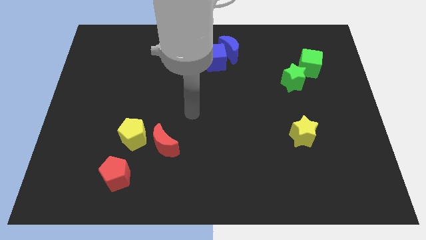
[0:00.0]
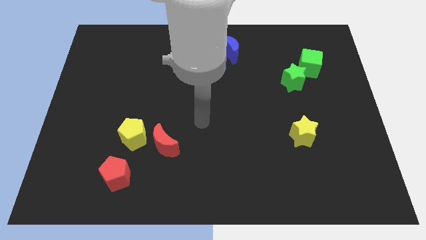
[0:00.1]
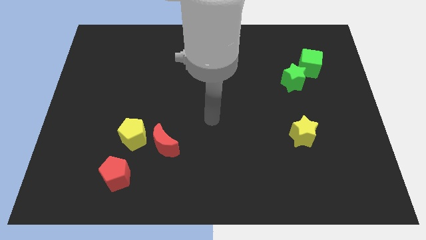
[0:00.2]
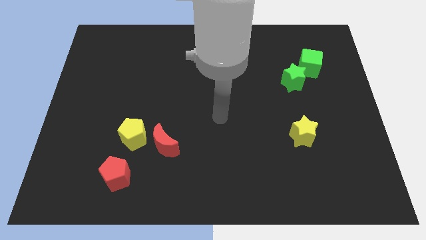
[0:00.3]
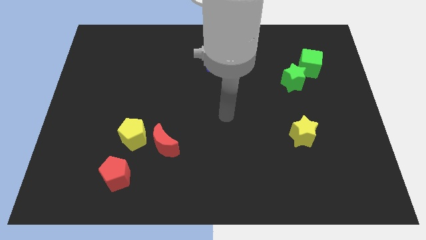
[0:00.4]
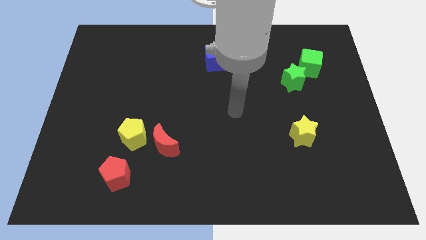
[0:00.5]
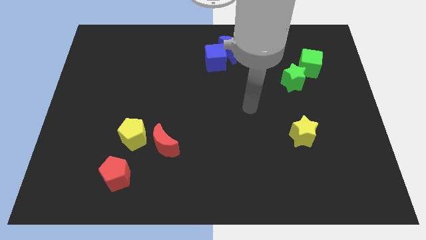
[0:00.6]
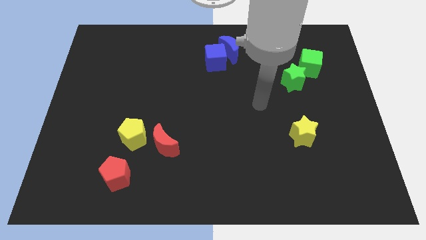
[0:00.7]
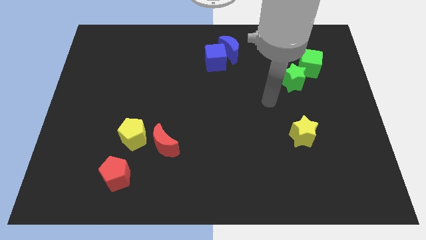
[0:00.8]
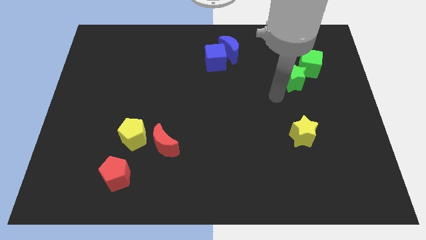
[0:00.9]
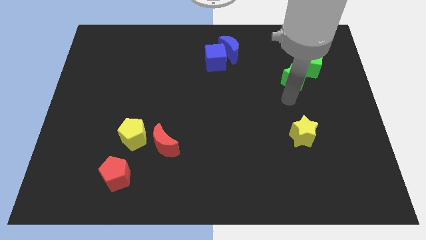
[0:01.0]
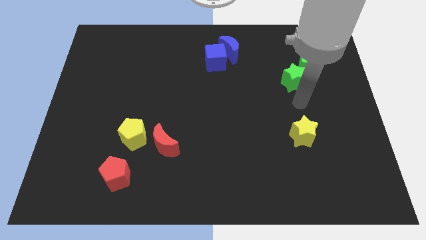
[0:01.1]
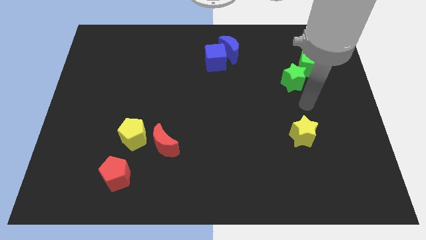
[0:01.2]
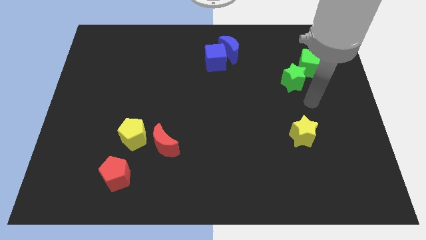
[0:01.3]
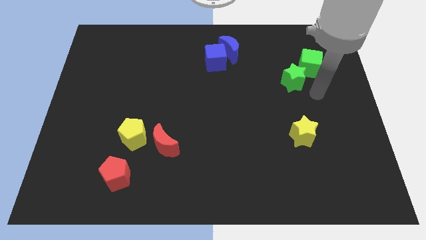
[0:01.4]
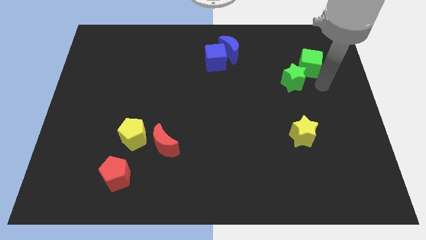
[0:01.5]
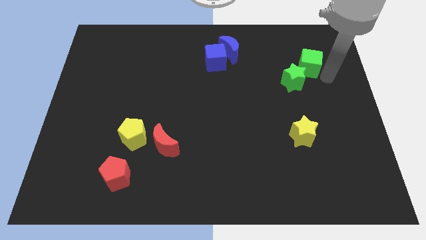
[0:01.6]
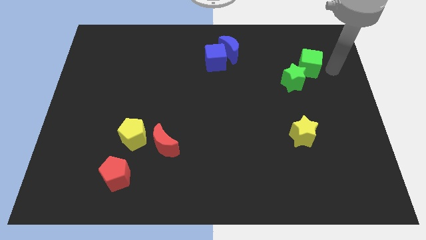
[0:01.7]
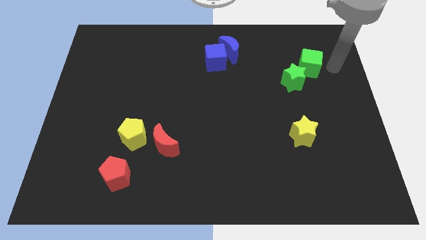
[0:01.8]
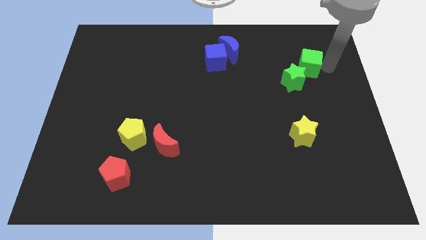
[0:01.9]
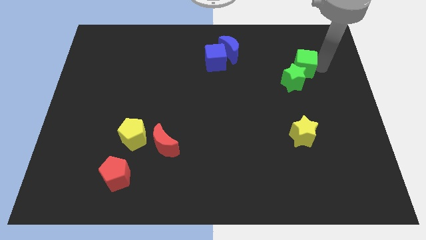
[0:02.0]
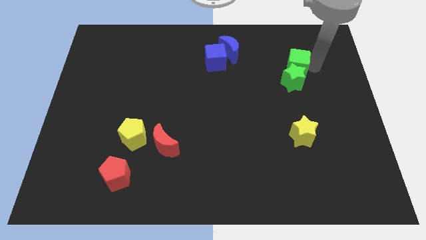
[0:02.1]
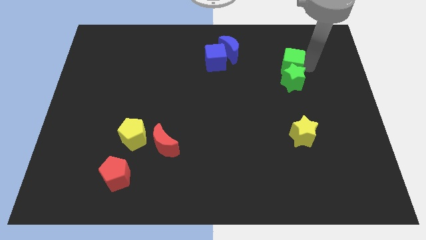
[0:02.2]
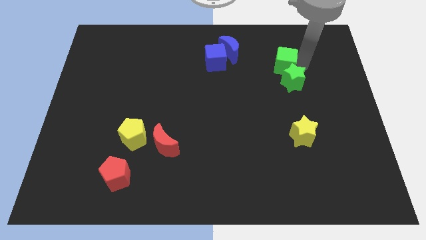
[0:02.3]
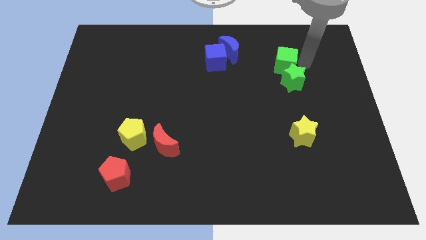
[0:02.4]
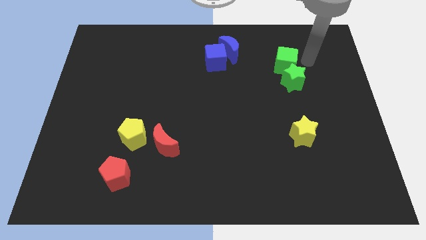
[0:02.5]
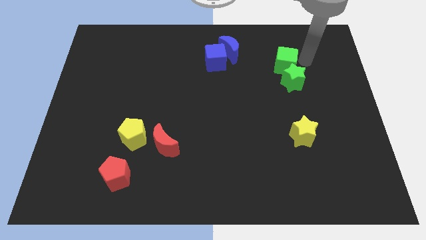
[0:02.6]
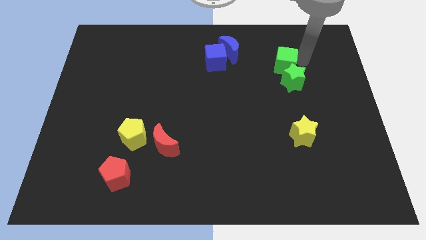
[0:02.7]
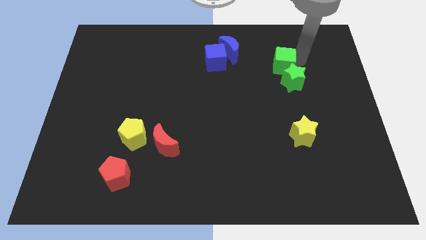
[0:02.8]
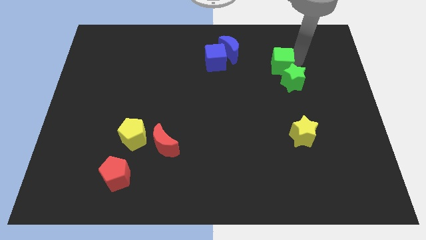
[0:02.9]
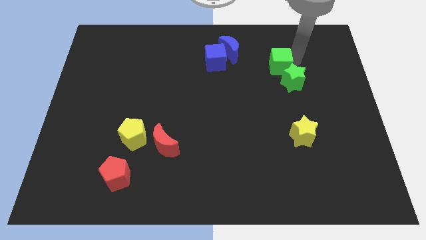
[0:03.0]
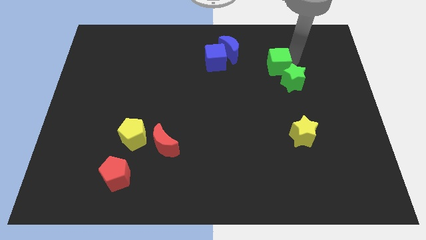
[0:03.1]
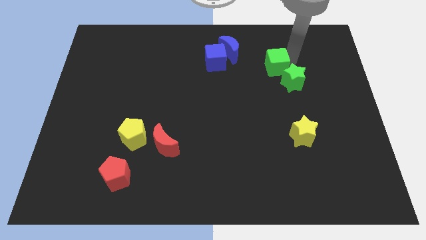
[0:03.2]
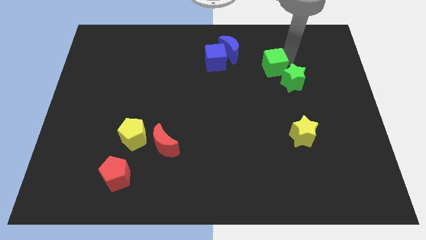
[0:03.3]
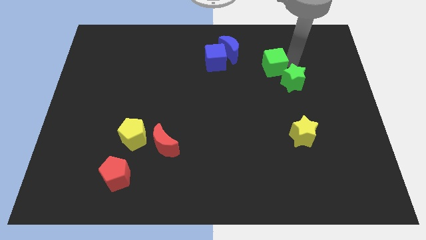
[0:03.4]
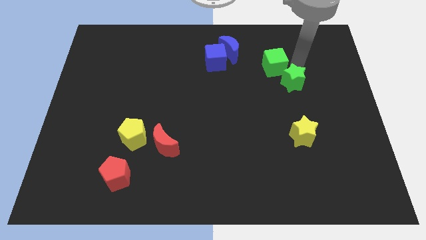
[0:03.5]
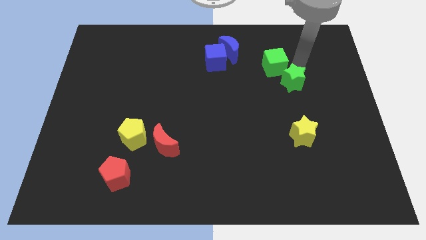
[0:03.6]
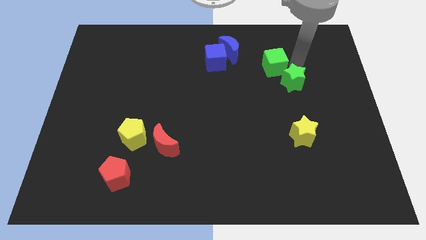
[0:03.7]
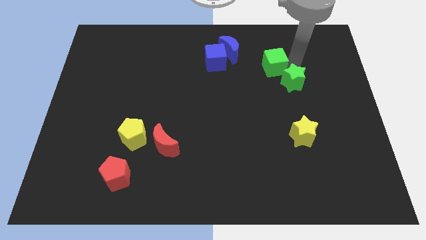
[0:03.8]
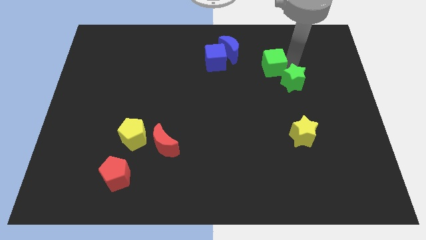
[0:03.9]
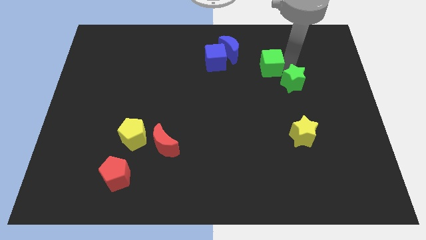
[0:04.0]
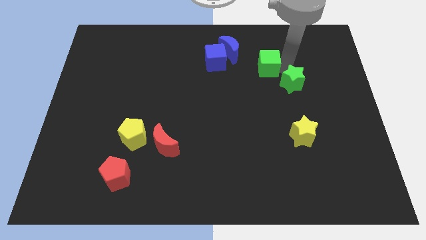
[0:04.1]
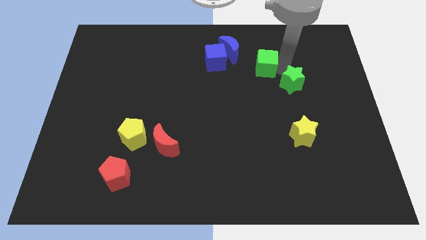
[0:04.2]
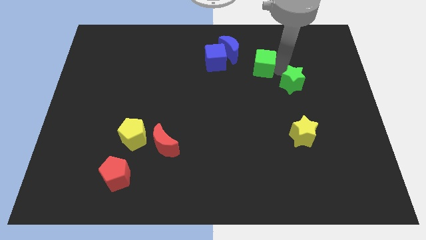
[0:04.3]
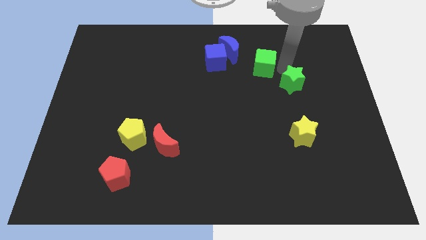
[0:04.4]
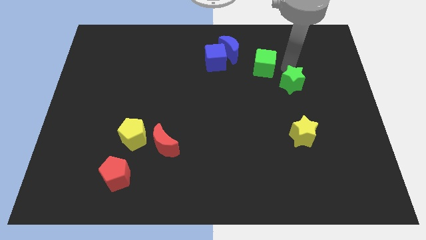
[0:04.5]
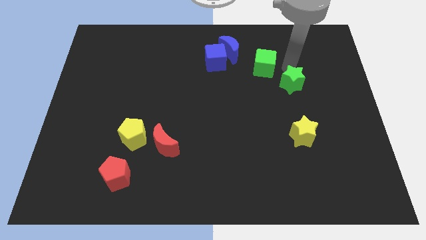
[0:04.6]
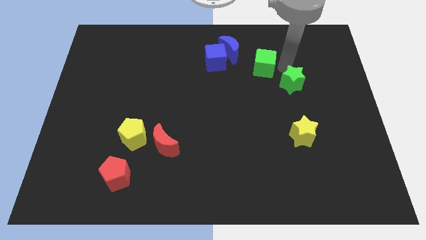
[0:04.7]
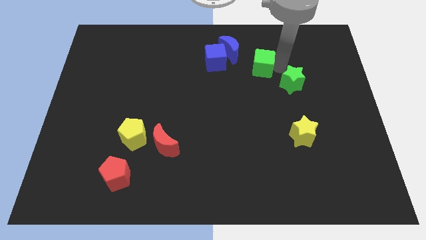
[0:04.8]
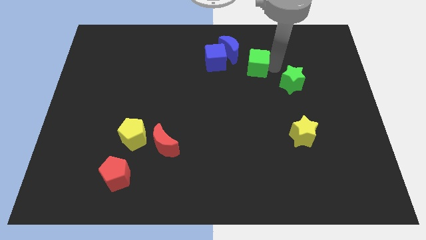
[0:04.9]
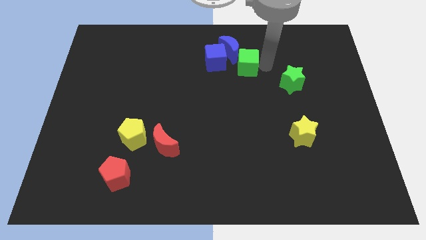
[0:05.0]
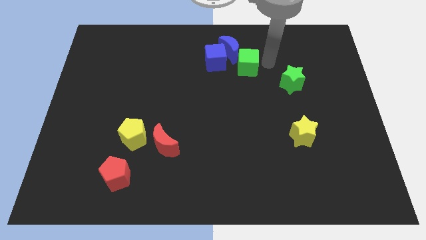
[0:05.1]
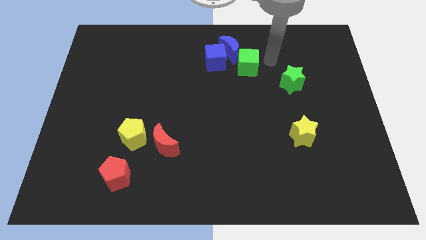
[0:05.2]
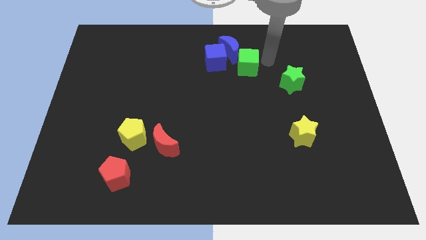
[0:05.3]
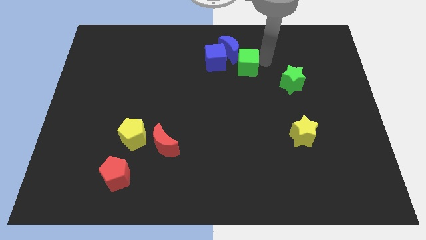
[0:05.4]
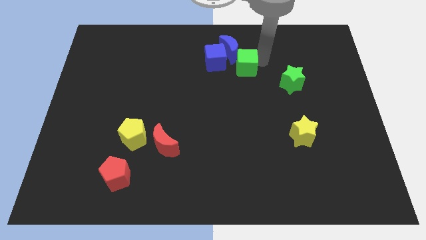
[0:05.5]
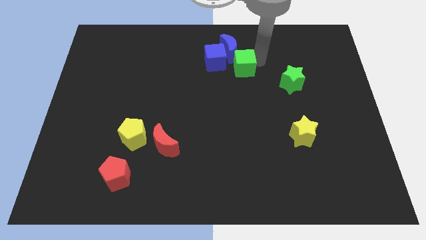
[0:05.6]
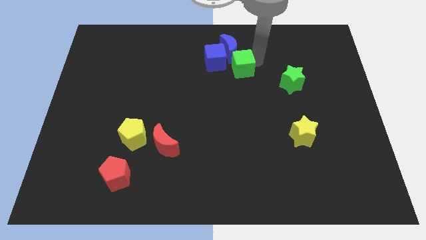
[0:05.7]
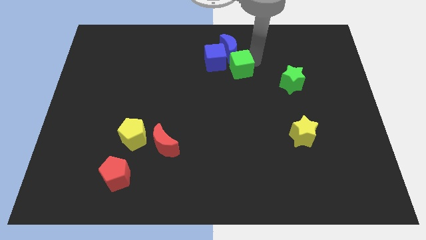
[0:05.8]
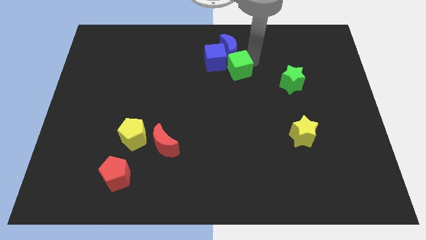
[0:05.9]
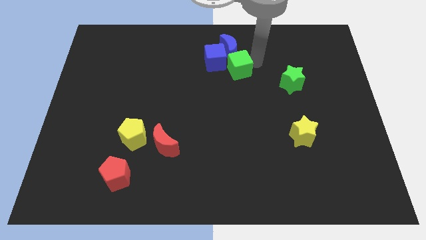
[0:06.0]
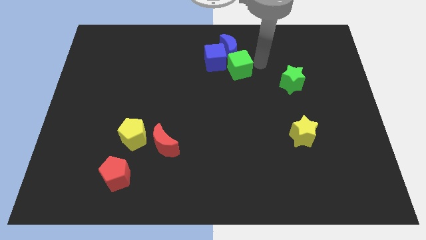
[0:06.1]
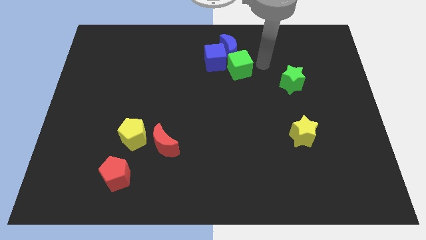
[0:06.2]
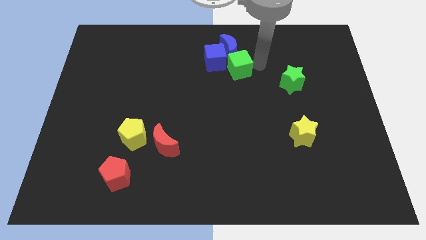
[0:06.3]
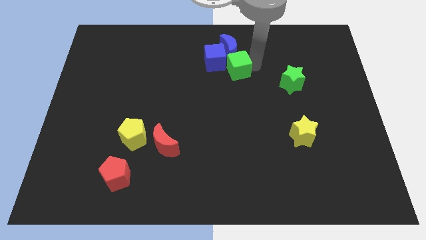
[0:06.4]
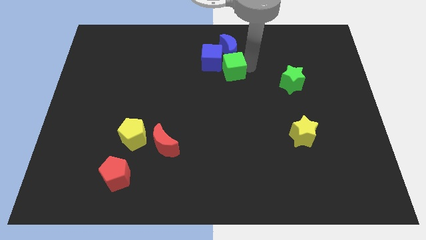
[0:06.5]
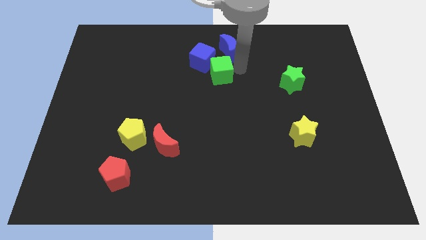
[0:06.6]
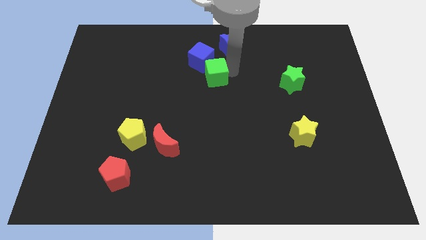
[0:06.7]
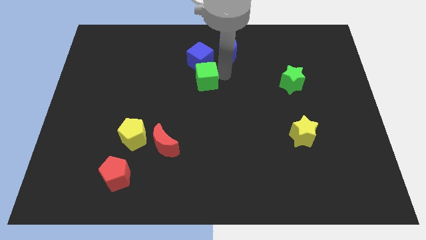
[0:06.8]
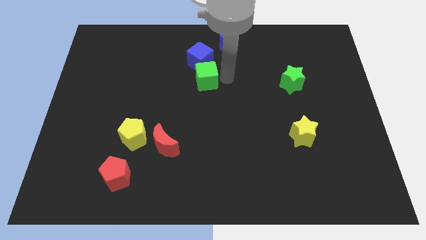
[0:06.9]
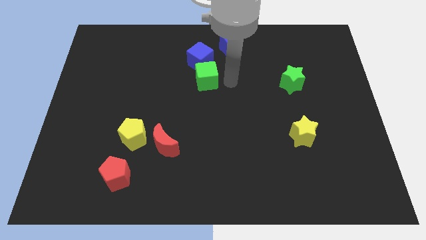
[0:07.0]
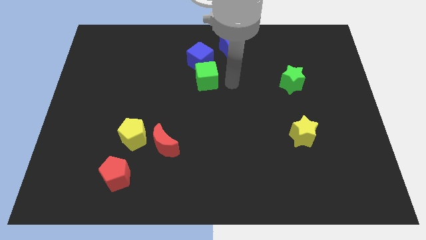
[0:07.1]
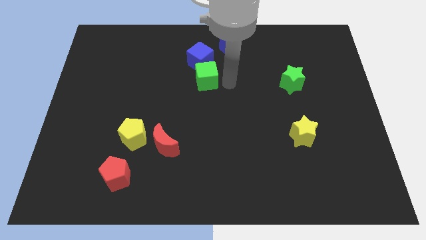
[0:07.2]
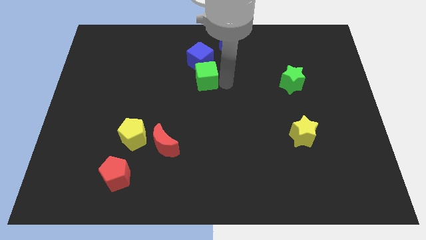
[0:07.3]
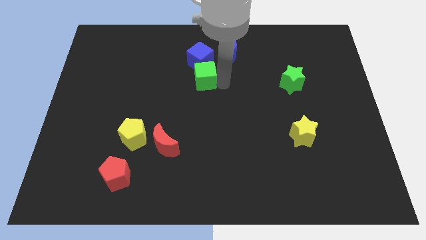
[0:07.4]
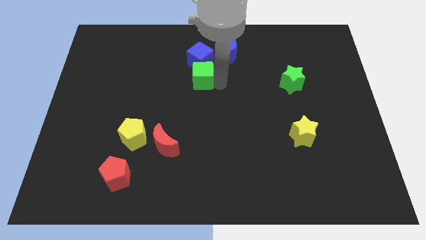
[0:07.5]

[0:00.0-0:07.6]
move the green cube to the bottom left side of the blue cube

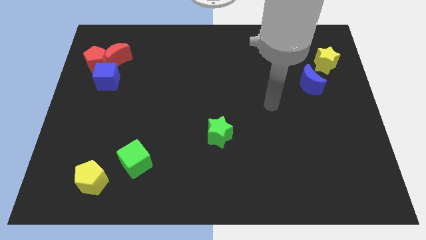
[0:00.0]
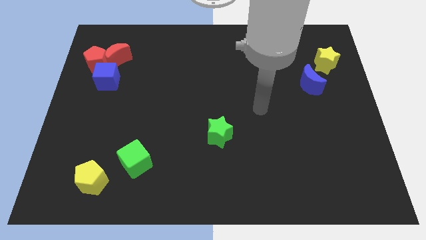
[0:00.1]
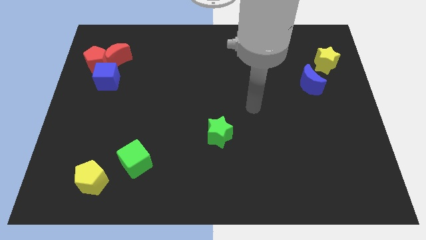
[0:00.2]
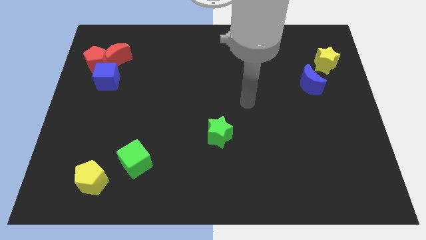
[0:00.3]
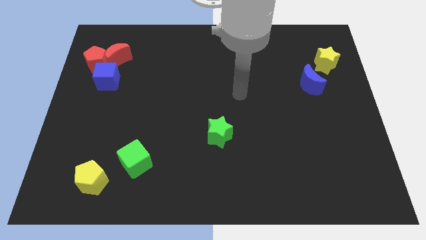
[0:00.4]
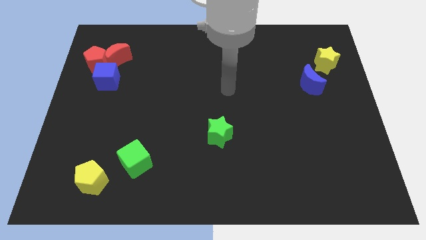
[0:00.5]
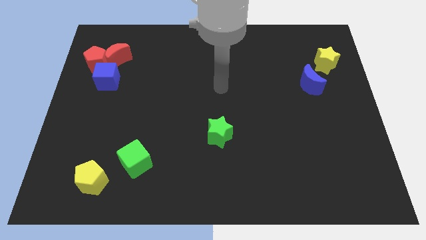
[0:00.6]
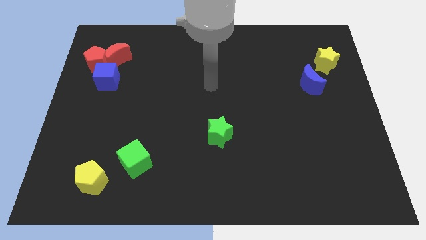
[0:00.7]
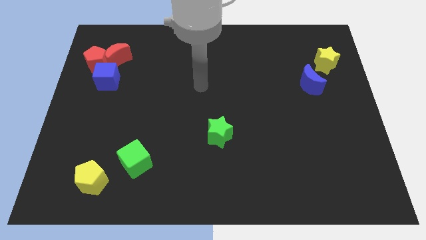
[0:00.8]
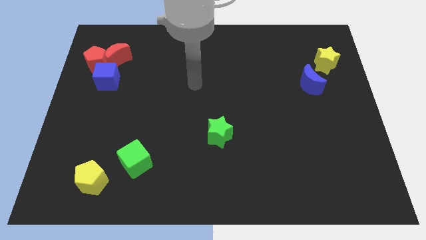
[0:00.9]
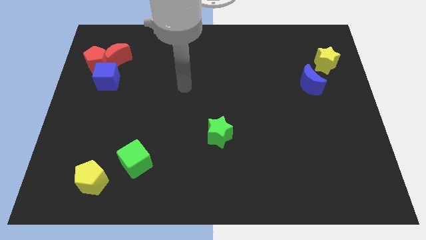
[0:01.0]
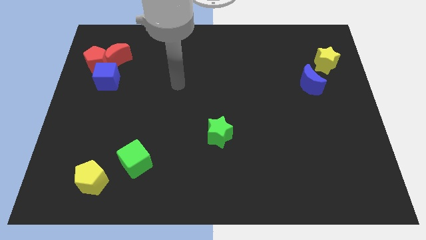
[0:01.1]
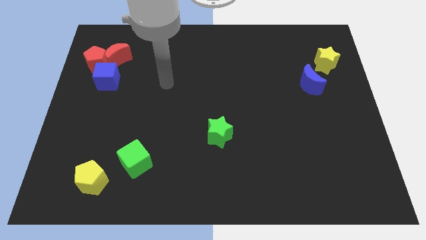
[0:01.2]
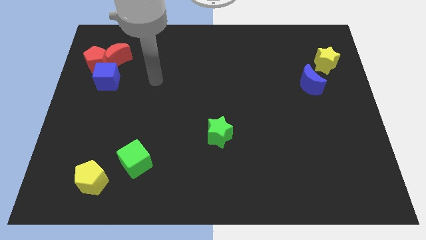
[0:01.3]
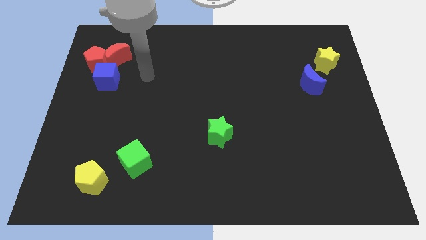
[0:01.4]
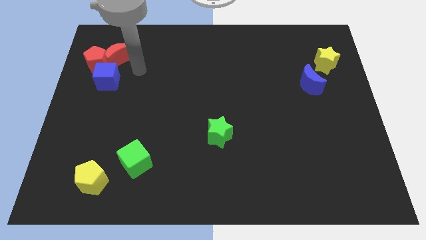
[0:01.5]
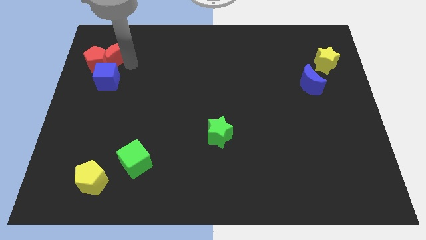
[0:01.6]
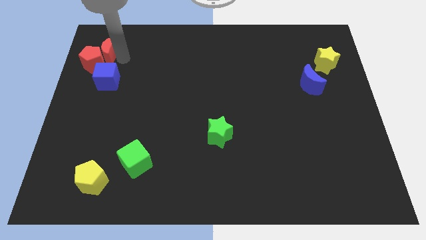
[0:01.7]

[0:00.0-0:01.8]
move the red pentagon to the bottom side of the red moon
